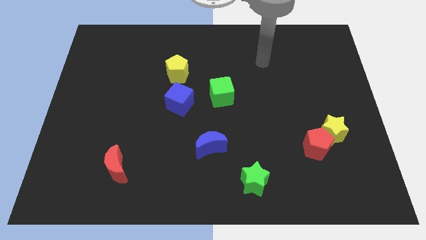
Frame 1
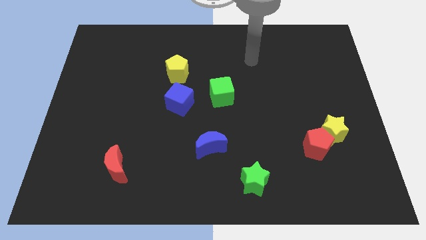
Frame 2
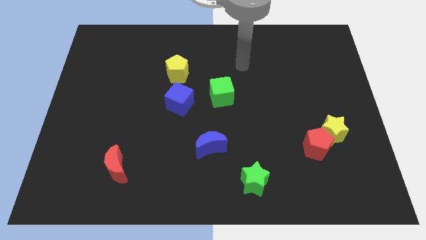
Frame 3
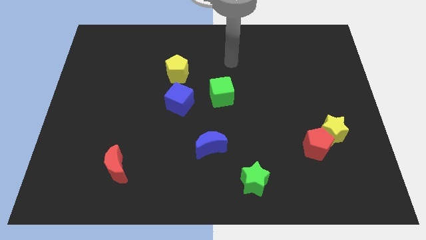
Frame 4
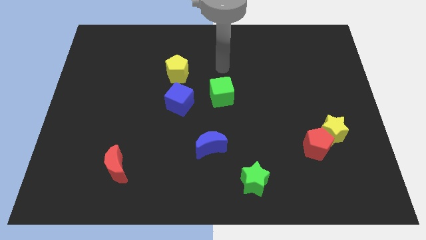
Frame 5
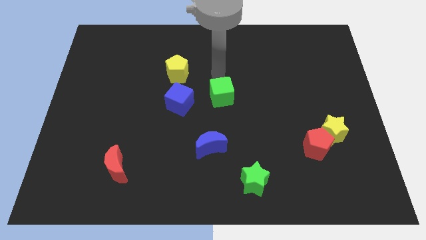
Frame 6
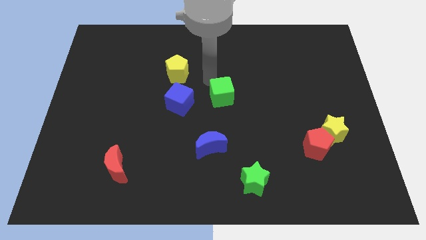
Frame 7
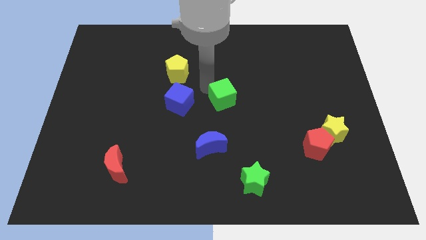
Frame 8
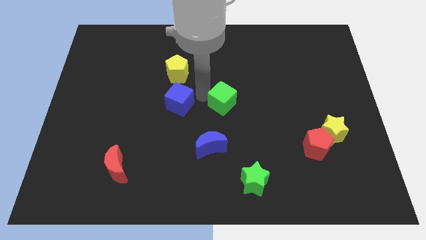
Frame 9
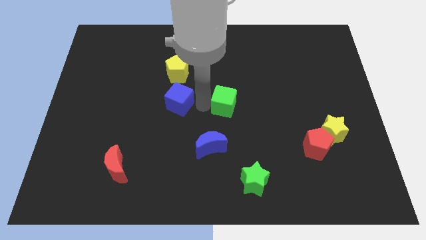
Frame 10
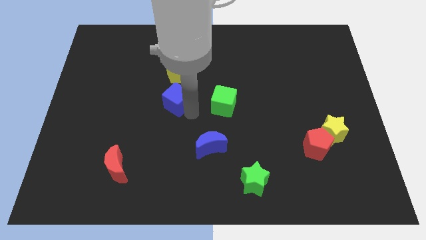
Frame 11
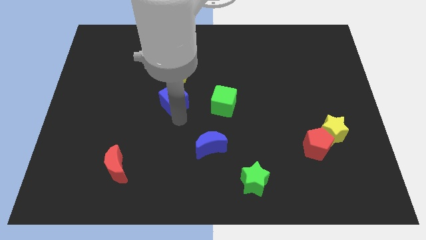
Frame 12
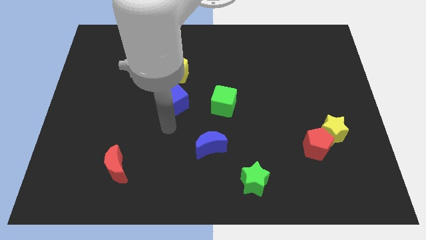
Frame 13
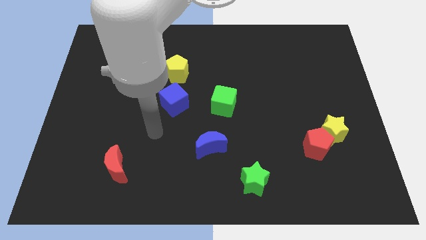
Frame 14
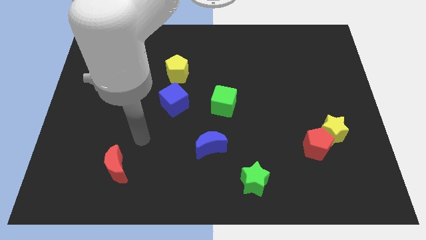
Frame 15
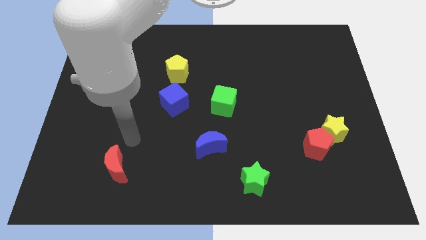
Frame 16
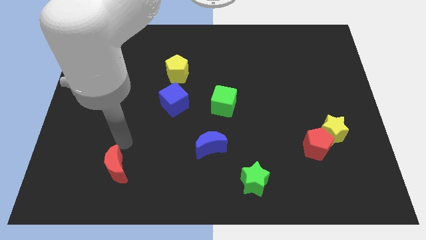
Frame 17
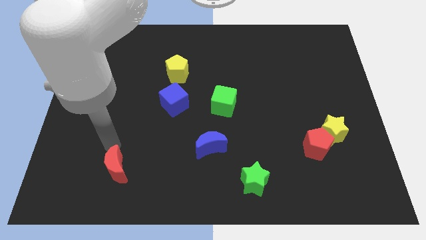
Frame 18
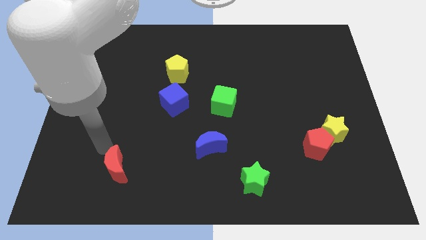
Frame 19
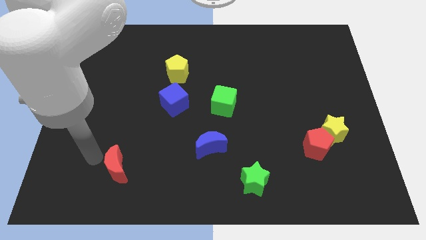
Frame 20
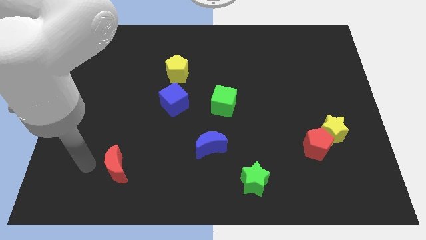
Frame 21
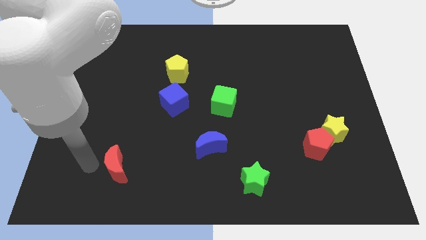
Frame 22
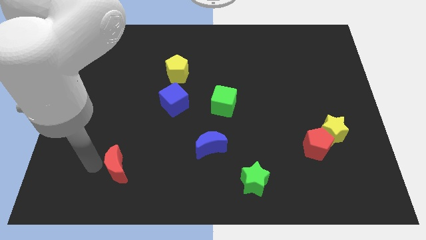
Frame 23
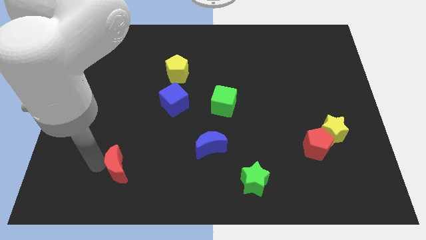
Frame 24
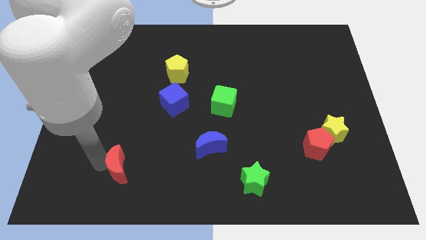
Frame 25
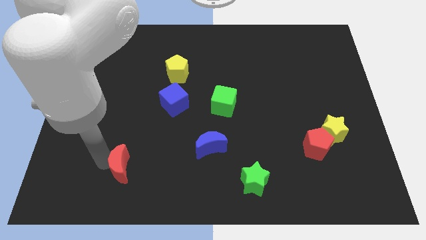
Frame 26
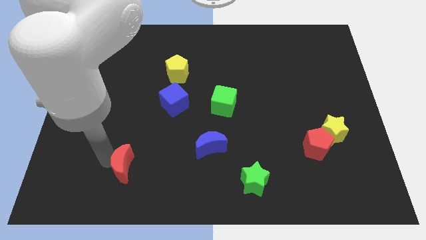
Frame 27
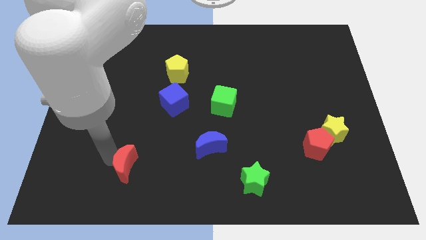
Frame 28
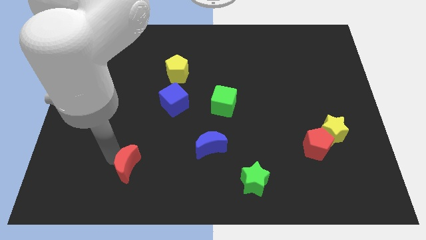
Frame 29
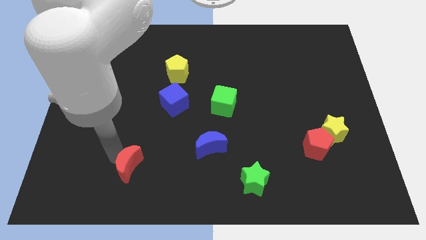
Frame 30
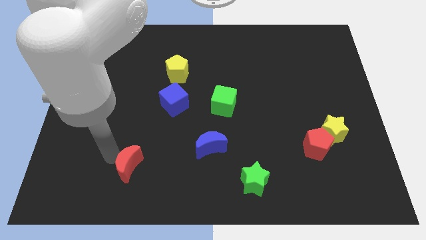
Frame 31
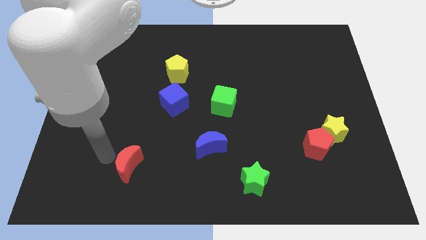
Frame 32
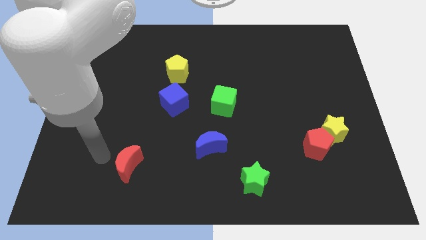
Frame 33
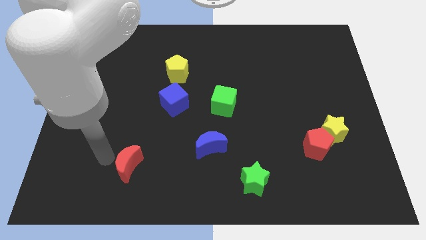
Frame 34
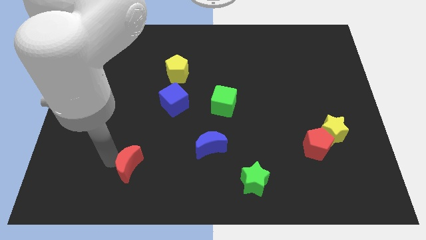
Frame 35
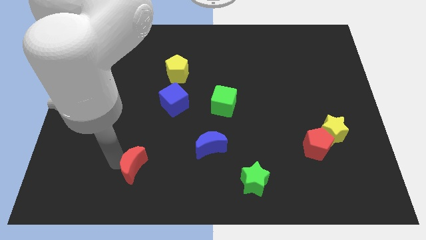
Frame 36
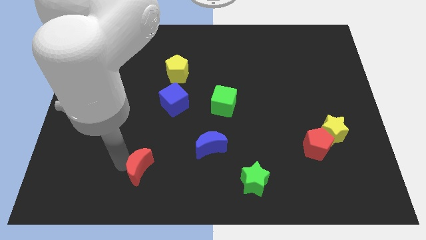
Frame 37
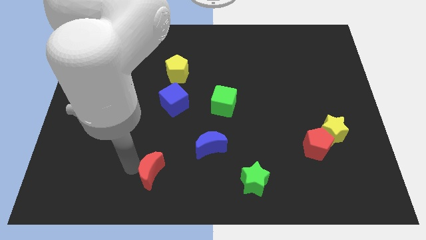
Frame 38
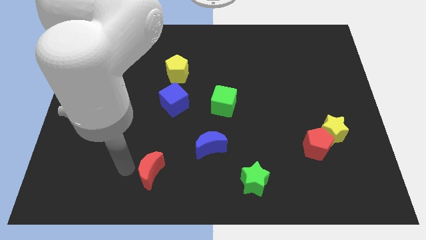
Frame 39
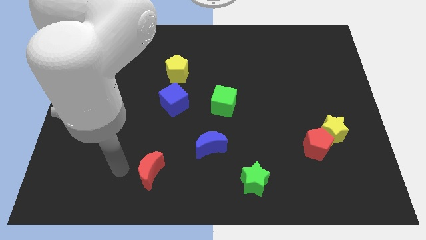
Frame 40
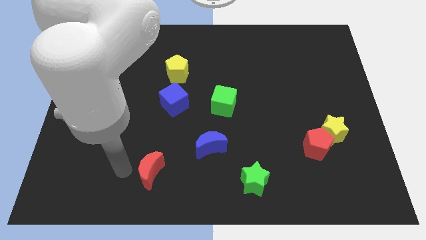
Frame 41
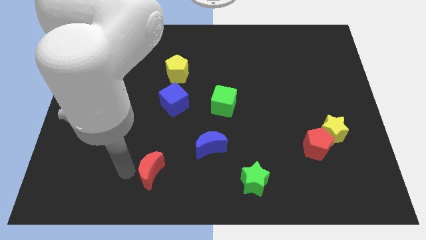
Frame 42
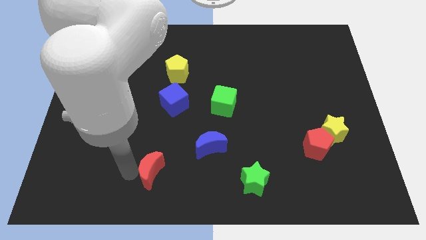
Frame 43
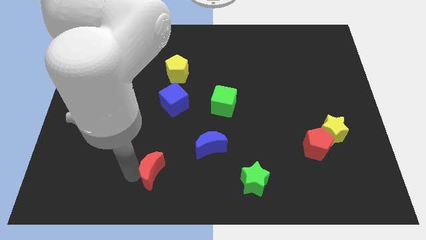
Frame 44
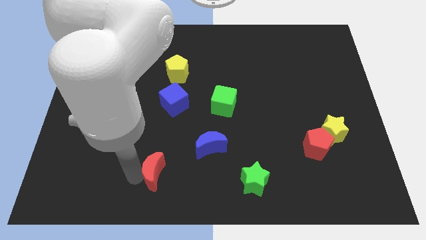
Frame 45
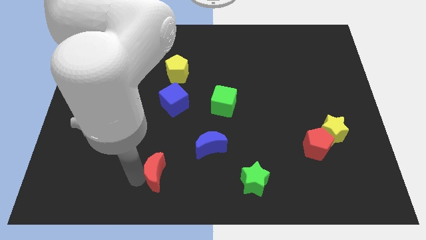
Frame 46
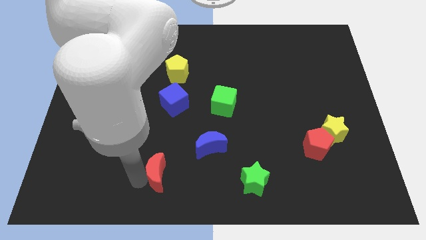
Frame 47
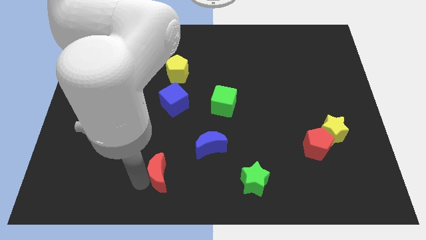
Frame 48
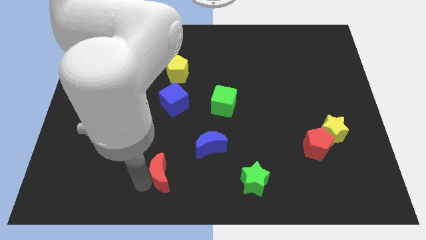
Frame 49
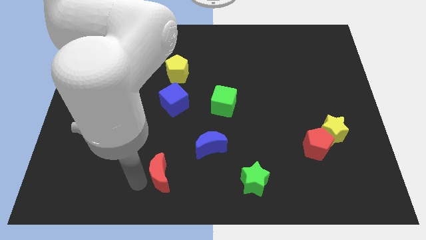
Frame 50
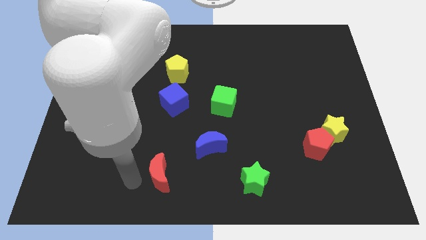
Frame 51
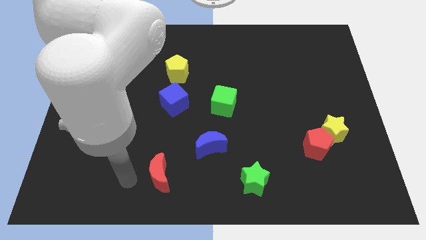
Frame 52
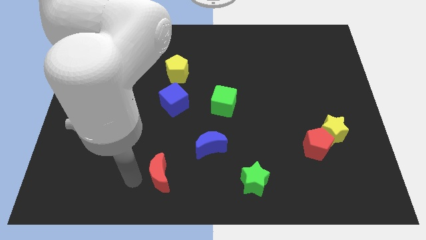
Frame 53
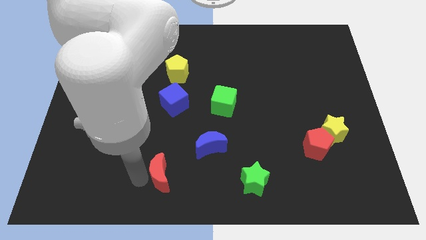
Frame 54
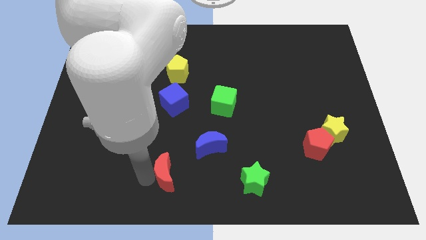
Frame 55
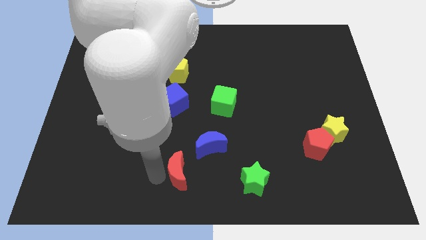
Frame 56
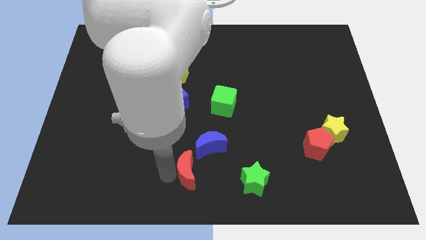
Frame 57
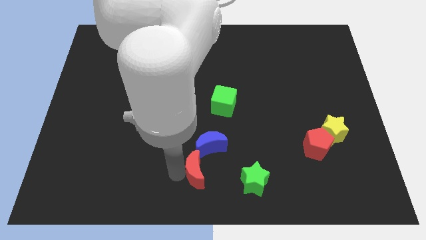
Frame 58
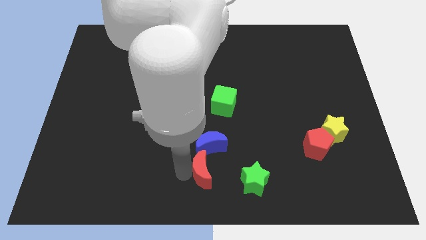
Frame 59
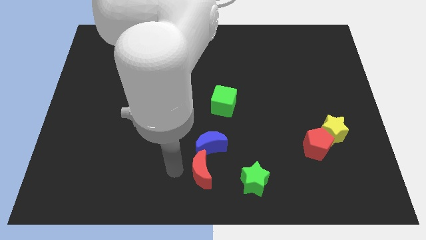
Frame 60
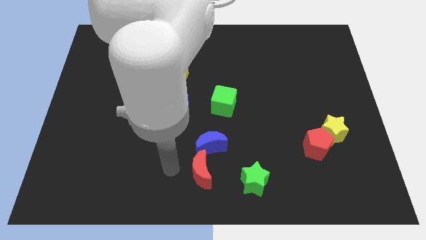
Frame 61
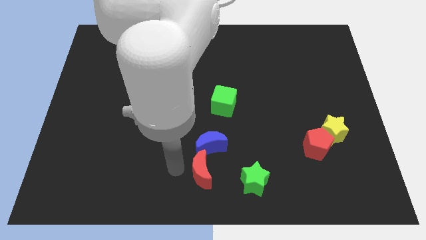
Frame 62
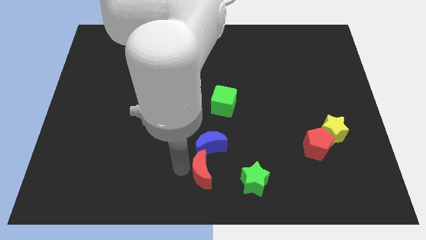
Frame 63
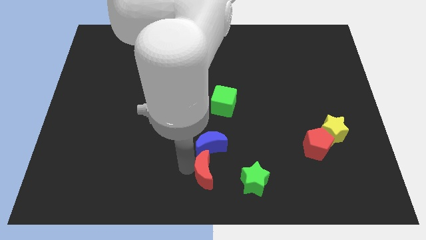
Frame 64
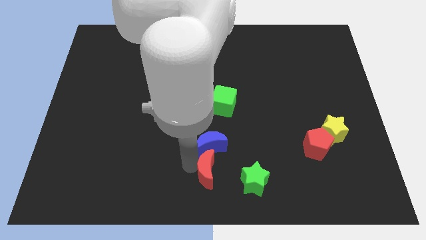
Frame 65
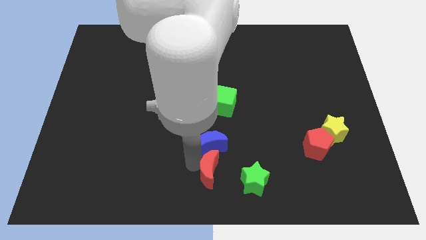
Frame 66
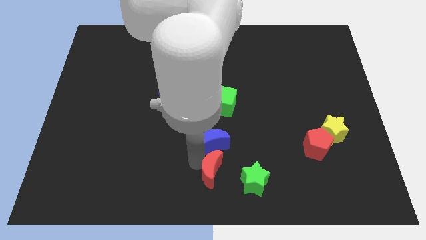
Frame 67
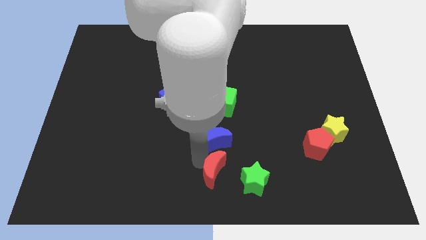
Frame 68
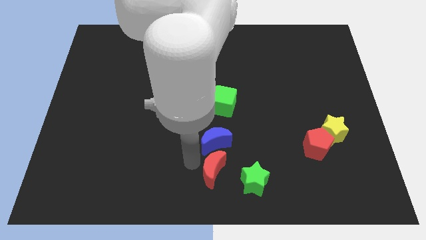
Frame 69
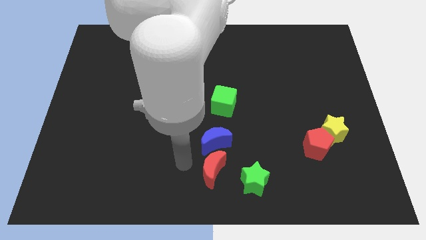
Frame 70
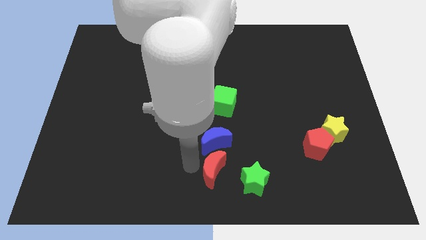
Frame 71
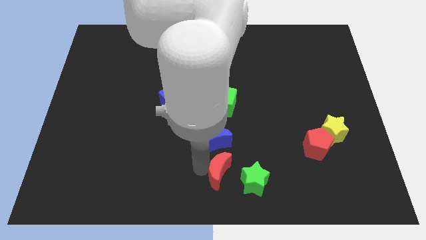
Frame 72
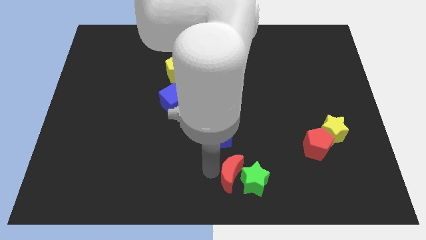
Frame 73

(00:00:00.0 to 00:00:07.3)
move the red moon next to the green star

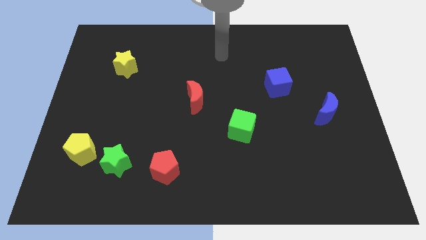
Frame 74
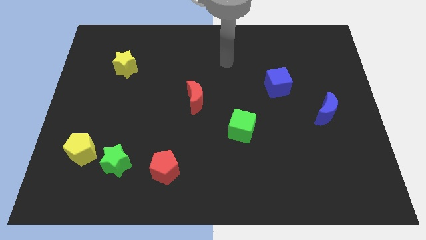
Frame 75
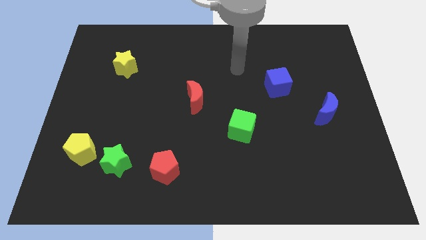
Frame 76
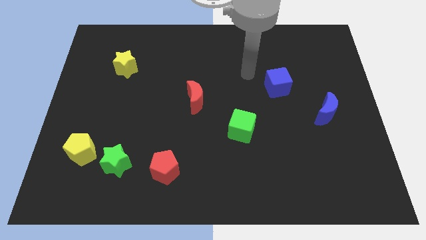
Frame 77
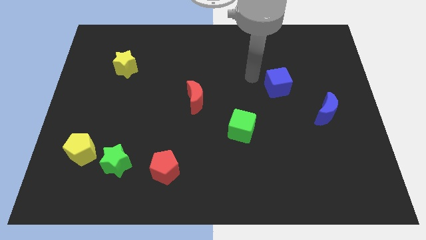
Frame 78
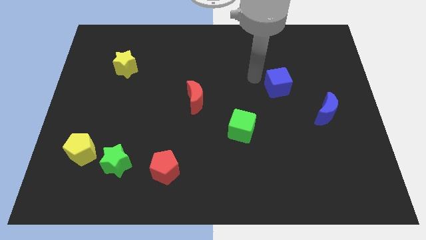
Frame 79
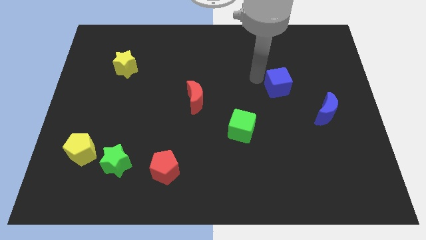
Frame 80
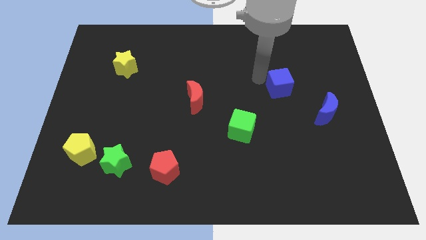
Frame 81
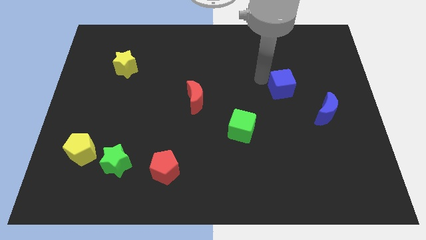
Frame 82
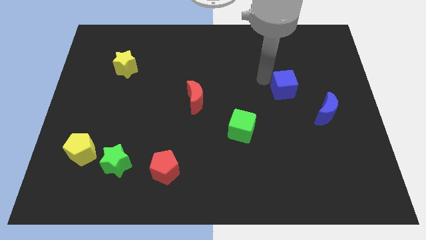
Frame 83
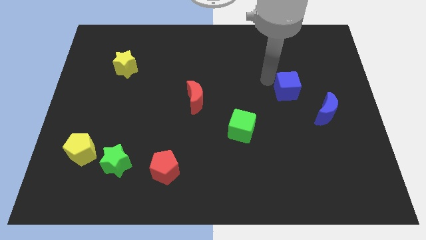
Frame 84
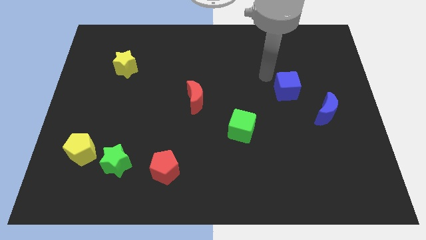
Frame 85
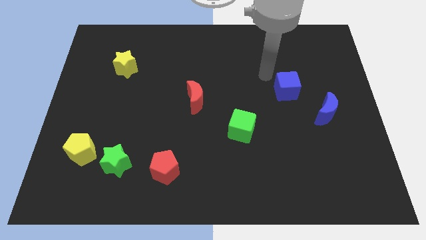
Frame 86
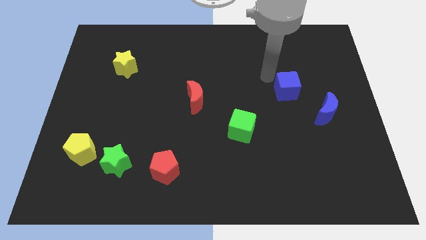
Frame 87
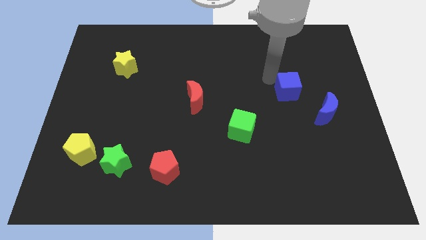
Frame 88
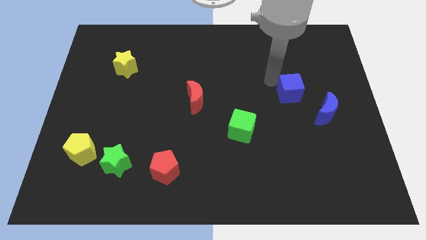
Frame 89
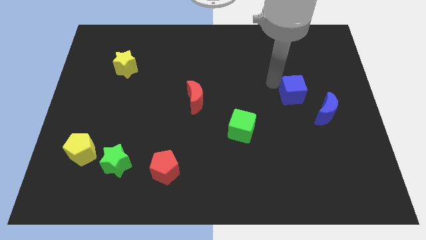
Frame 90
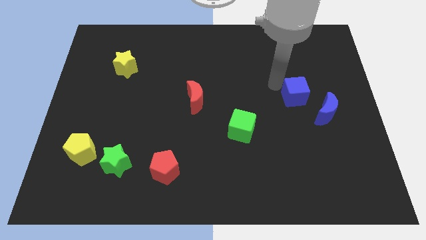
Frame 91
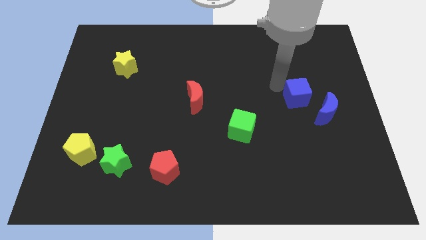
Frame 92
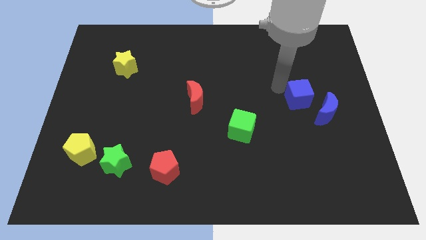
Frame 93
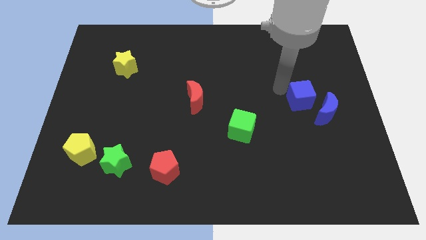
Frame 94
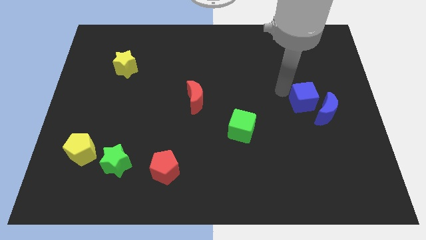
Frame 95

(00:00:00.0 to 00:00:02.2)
slide the blue cube close to the blue moon
